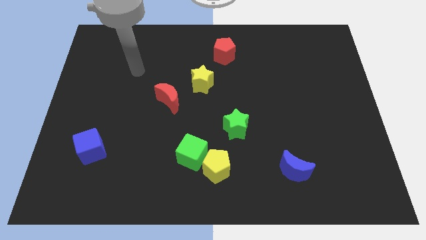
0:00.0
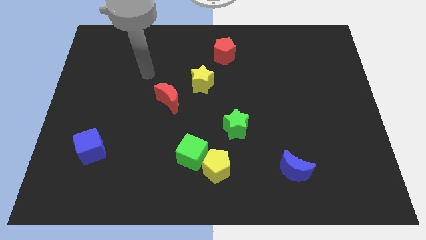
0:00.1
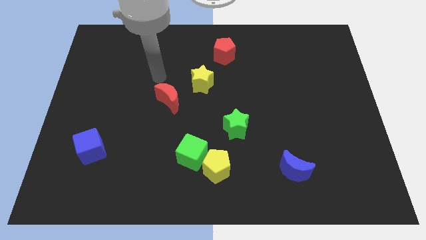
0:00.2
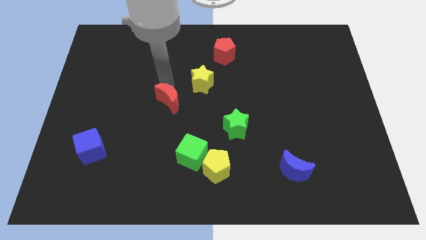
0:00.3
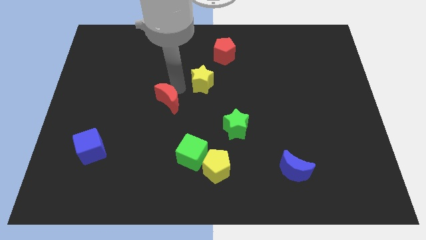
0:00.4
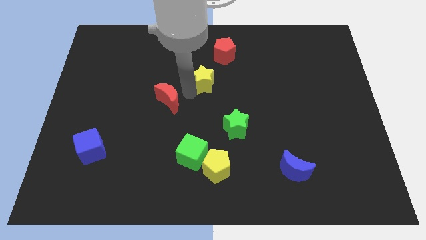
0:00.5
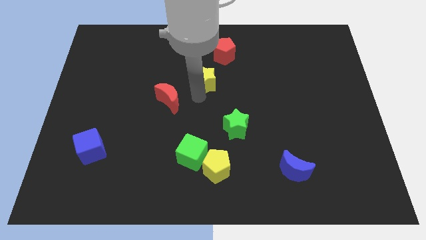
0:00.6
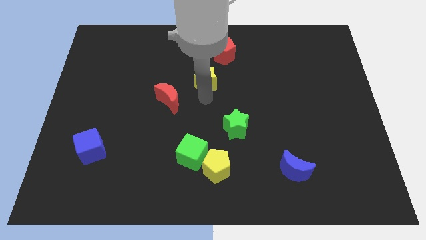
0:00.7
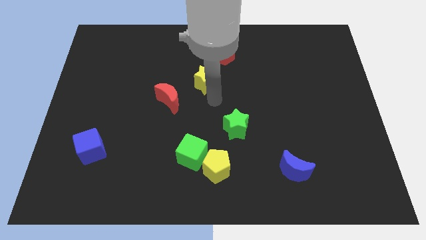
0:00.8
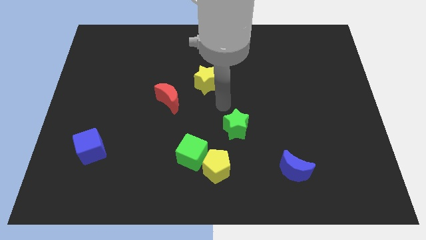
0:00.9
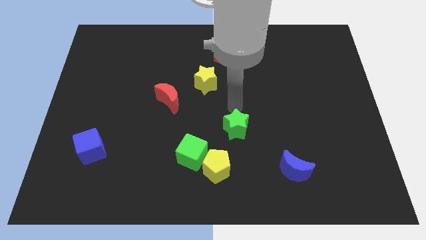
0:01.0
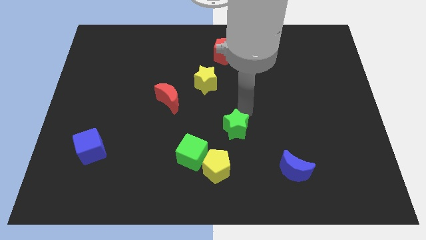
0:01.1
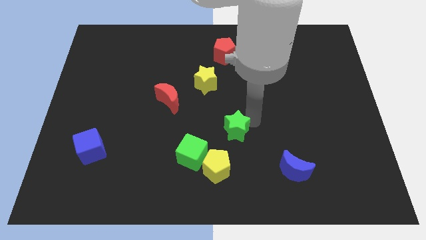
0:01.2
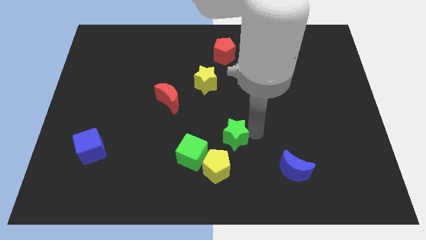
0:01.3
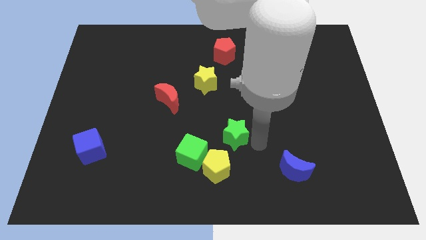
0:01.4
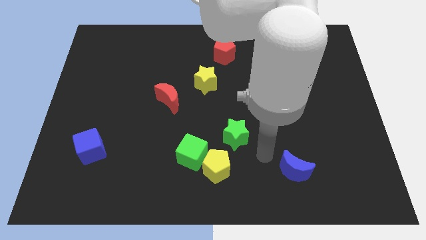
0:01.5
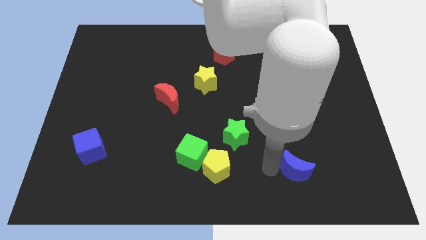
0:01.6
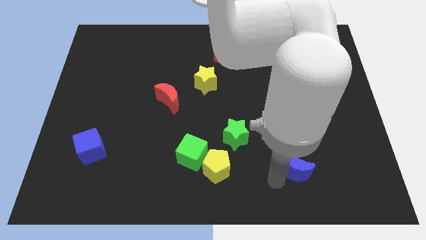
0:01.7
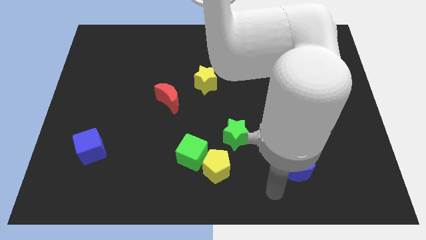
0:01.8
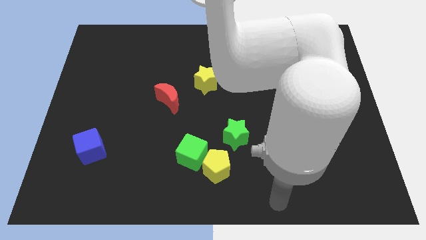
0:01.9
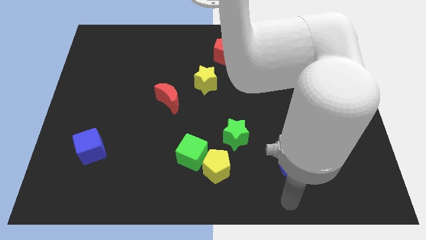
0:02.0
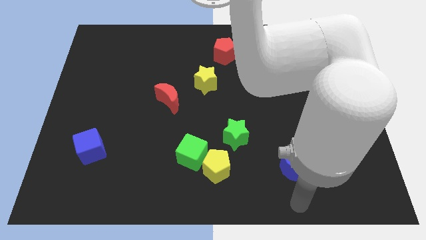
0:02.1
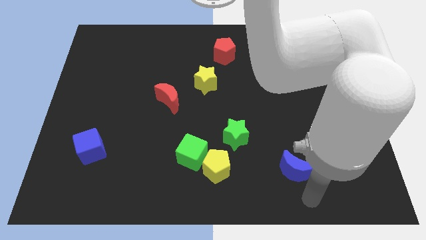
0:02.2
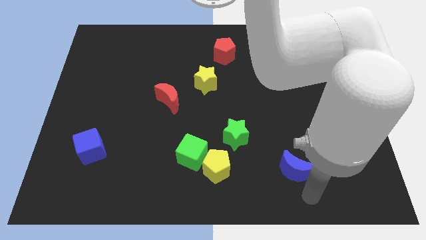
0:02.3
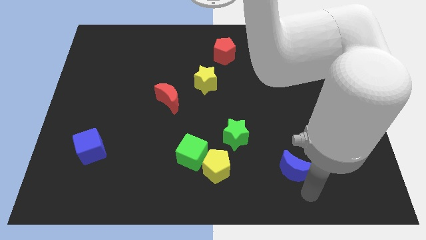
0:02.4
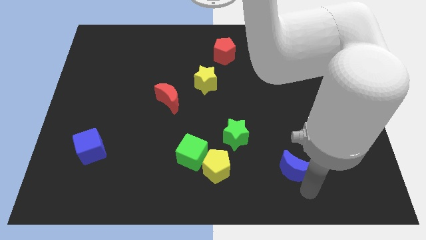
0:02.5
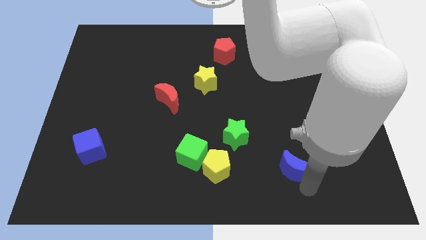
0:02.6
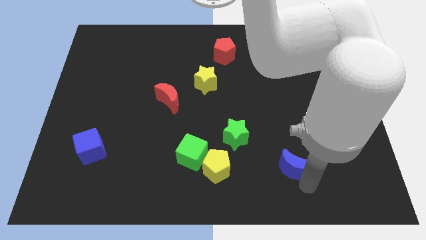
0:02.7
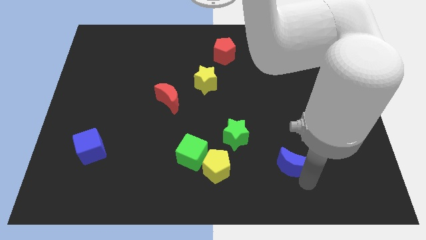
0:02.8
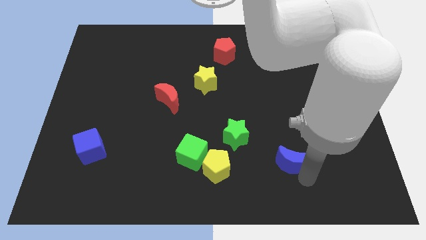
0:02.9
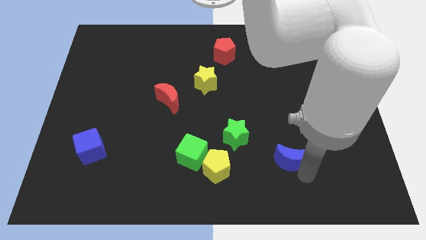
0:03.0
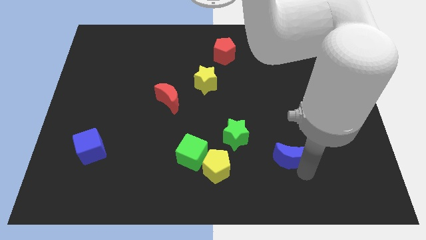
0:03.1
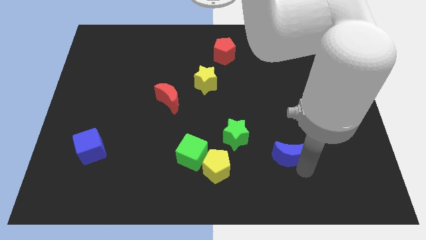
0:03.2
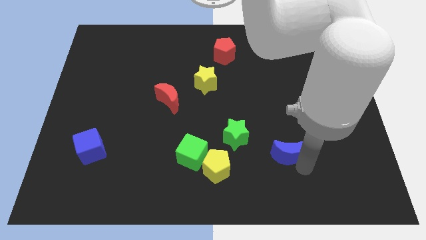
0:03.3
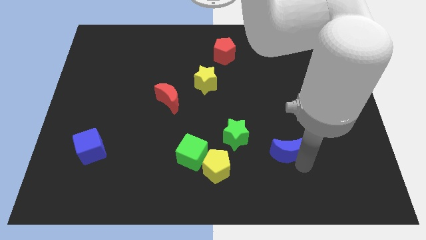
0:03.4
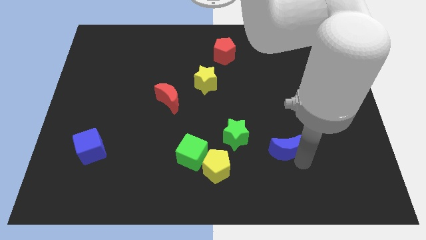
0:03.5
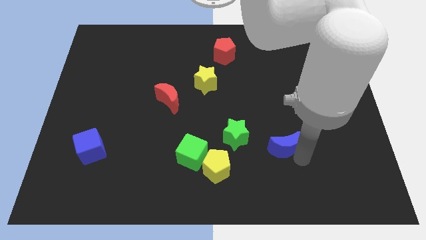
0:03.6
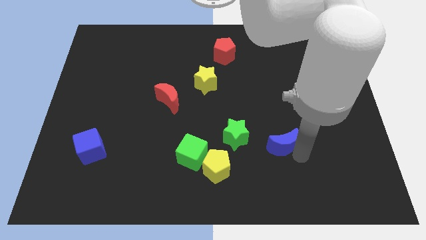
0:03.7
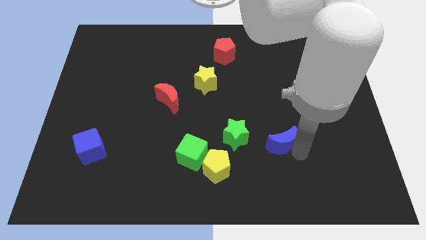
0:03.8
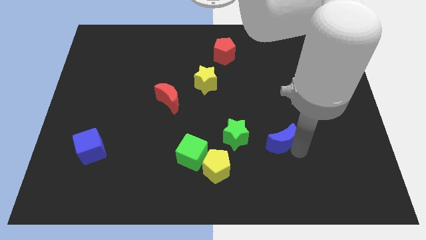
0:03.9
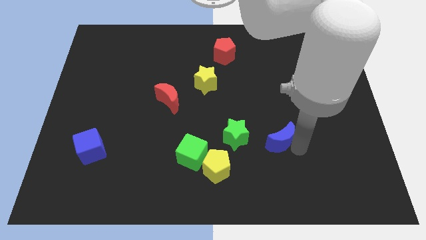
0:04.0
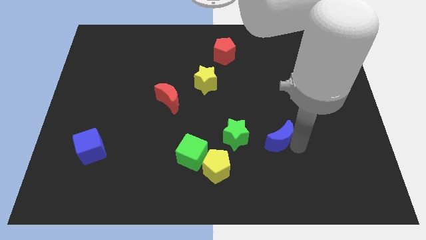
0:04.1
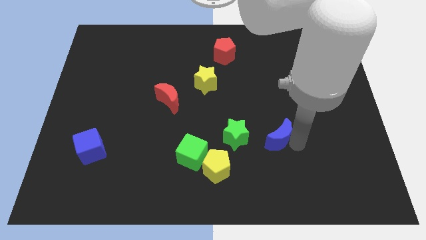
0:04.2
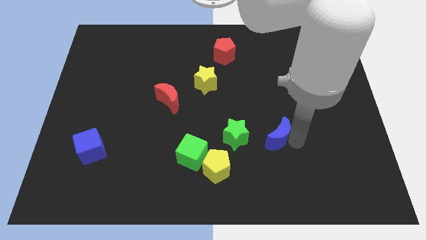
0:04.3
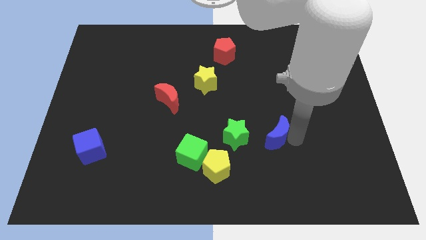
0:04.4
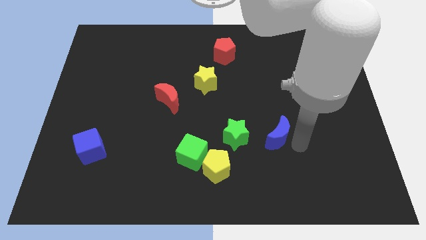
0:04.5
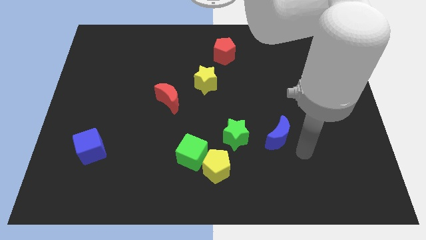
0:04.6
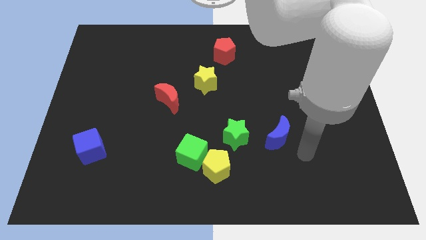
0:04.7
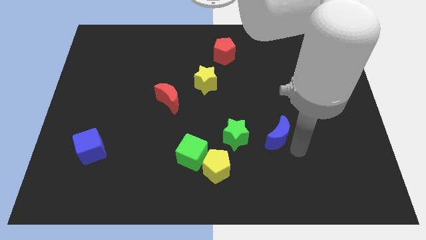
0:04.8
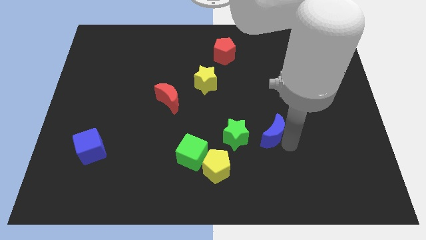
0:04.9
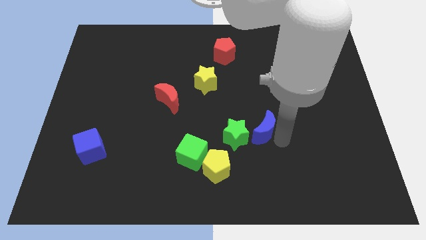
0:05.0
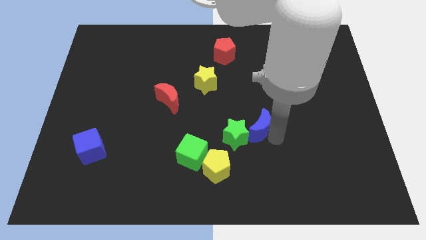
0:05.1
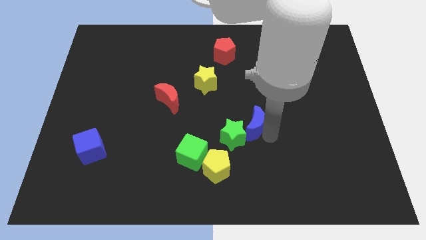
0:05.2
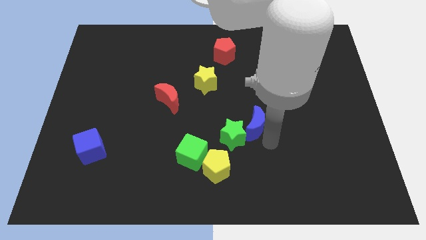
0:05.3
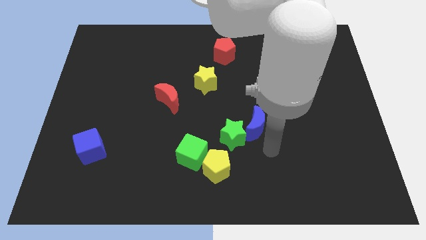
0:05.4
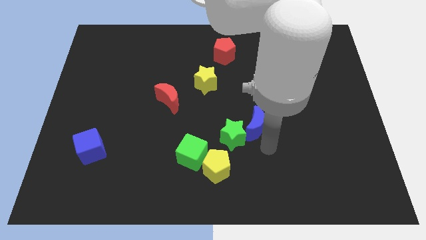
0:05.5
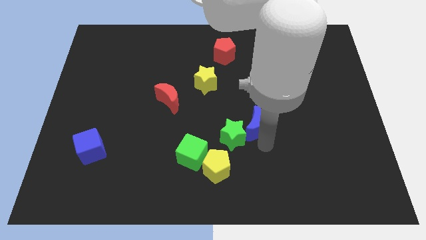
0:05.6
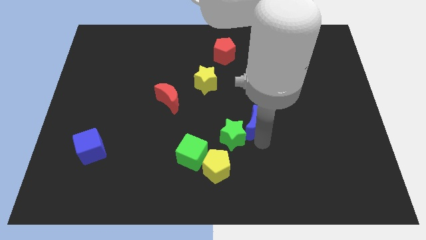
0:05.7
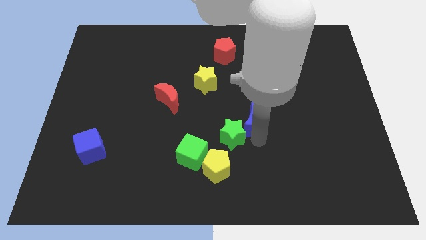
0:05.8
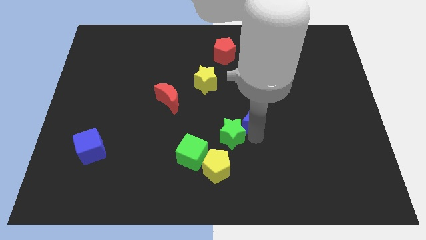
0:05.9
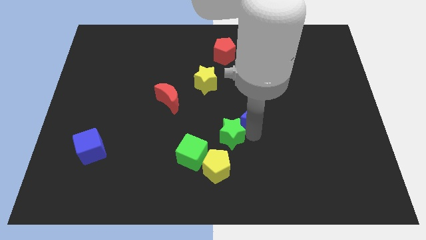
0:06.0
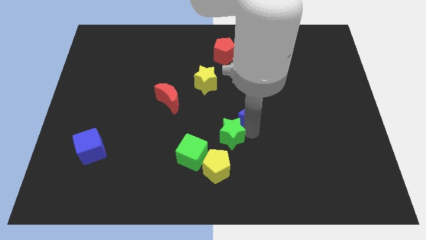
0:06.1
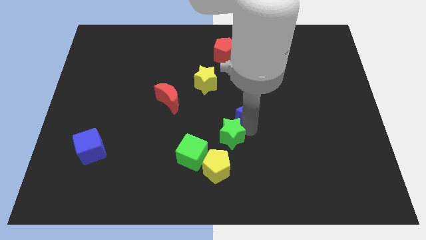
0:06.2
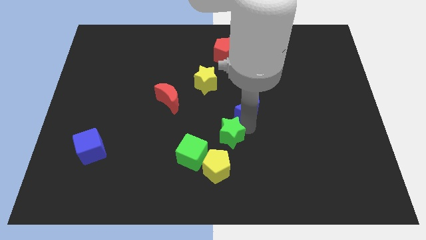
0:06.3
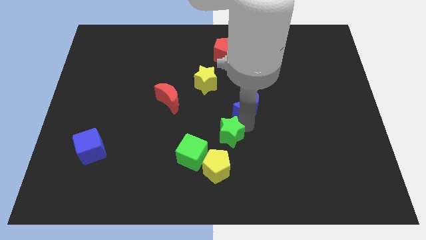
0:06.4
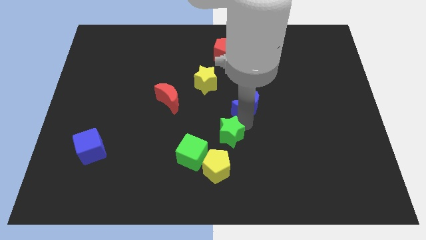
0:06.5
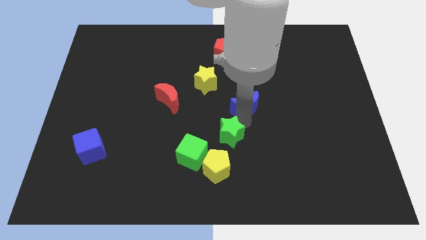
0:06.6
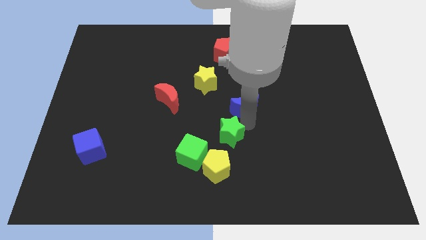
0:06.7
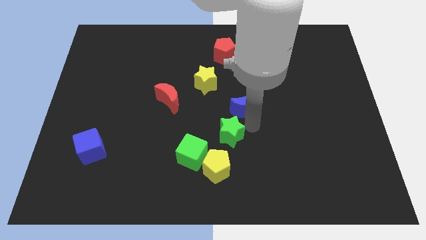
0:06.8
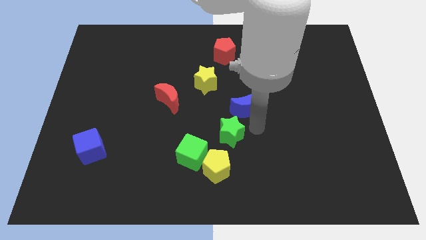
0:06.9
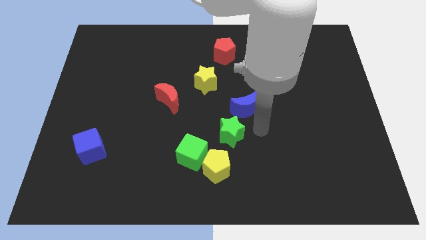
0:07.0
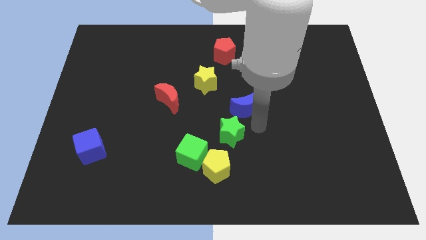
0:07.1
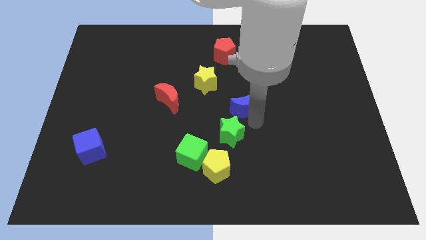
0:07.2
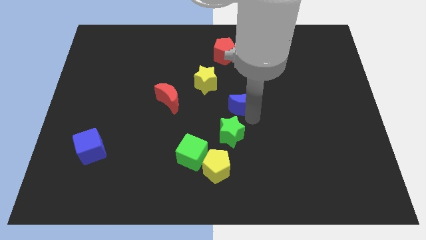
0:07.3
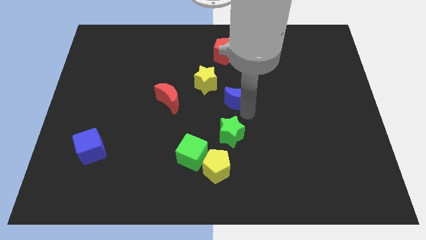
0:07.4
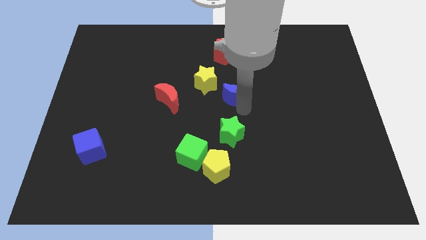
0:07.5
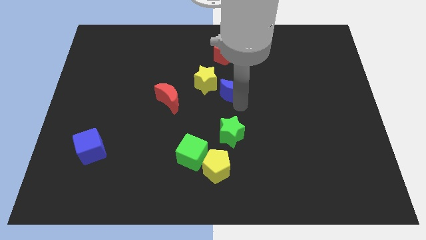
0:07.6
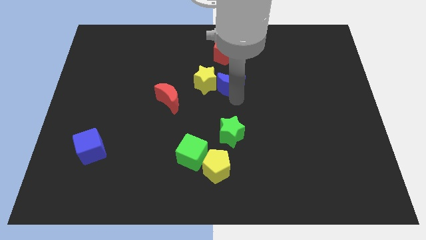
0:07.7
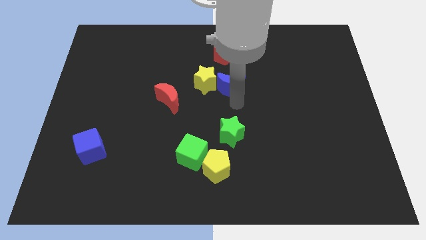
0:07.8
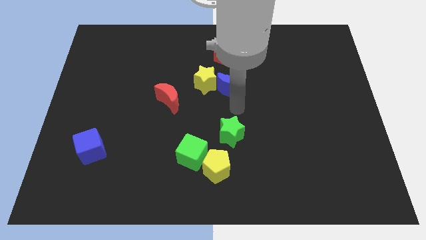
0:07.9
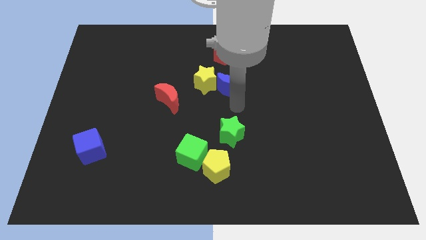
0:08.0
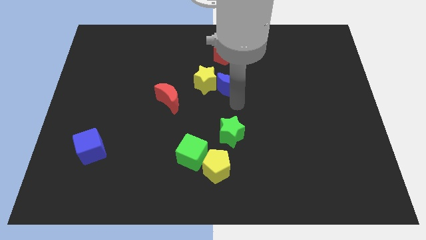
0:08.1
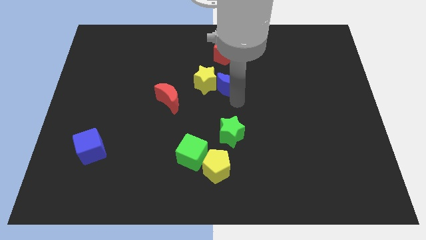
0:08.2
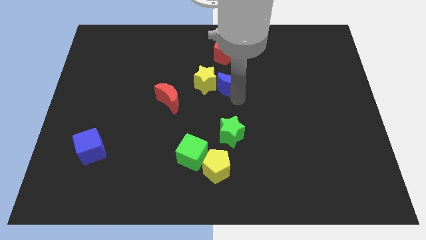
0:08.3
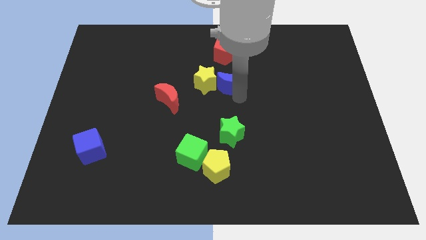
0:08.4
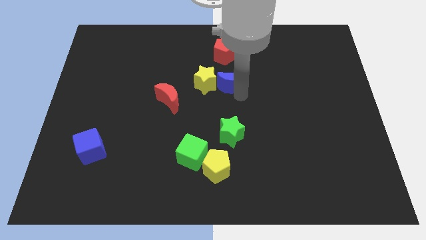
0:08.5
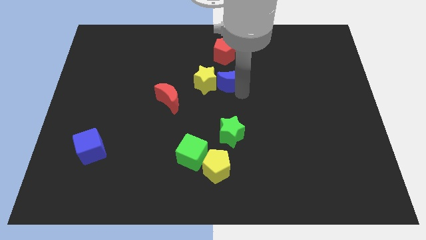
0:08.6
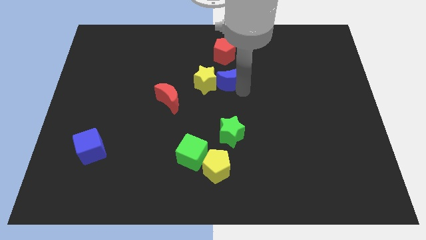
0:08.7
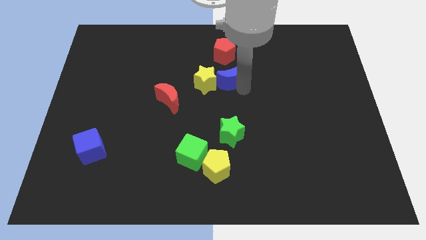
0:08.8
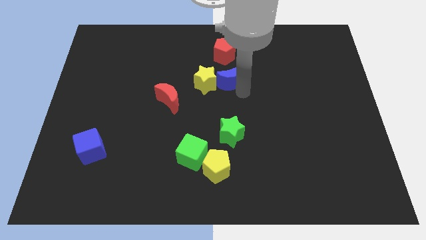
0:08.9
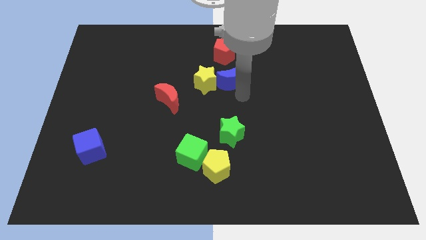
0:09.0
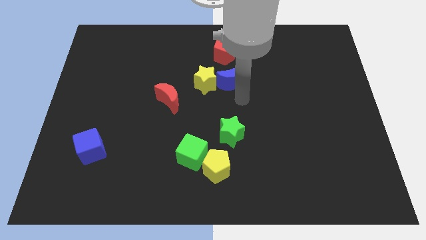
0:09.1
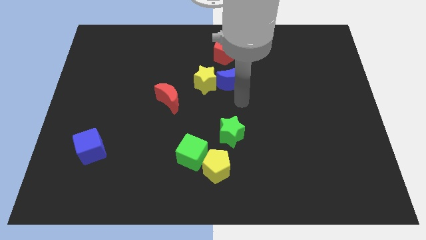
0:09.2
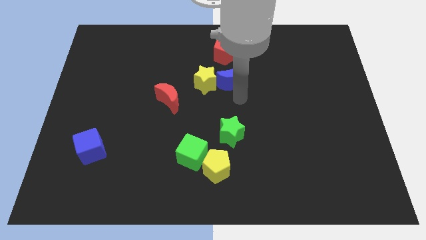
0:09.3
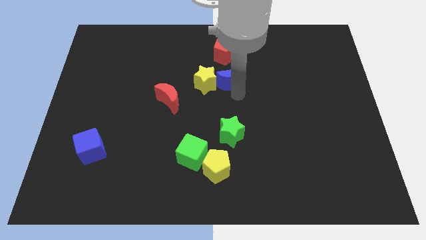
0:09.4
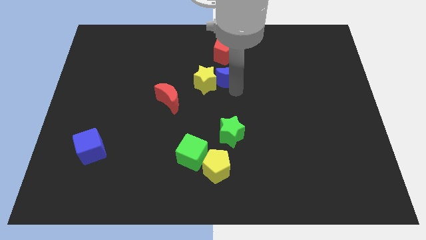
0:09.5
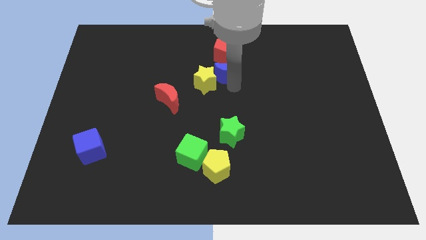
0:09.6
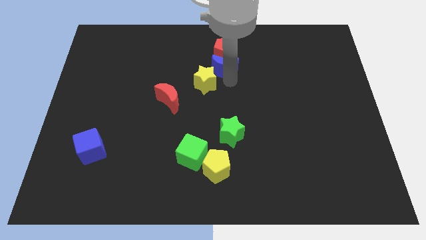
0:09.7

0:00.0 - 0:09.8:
slide the blue moon towards the red pentagon
